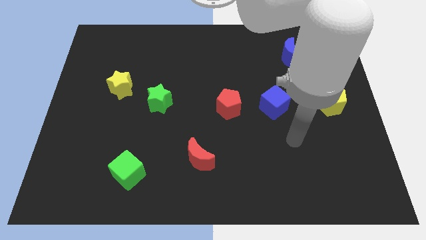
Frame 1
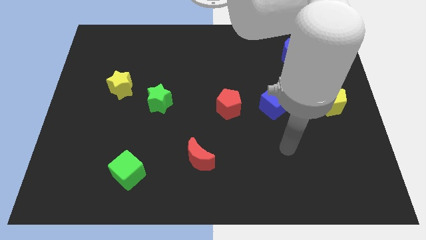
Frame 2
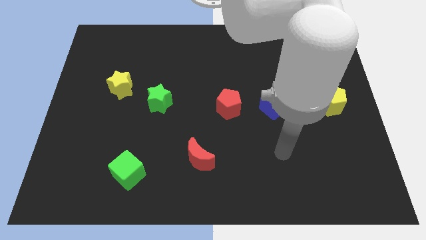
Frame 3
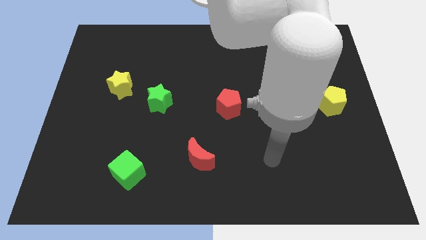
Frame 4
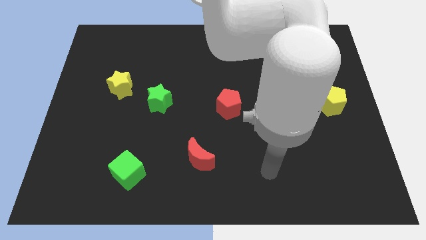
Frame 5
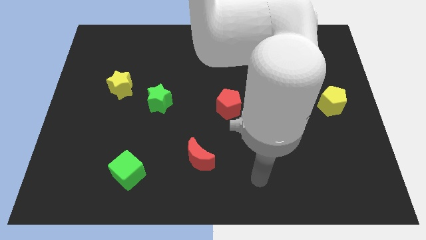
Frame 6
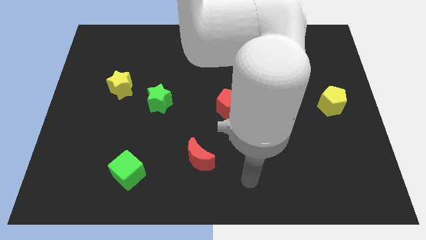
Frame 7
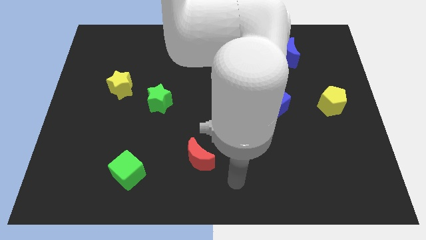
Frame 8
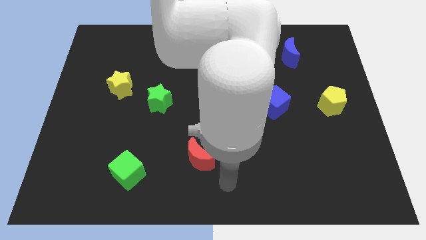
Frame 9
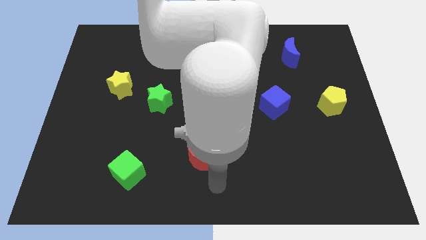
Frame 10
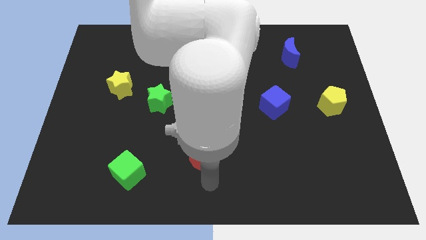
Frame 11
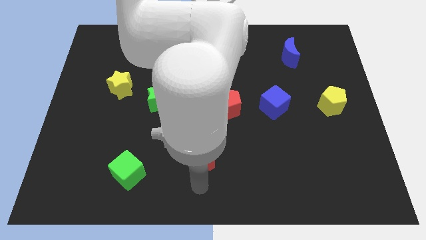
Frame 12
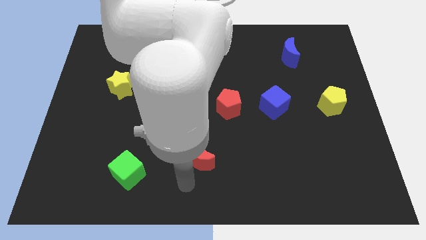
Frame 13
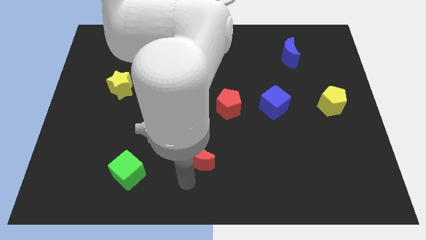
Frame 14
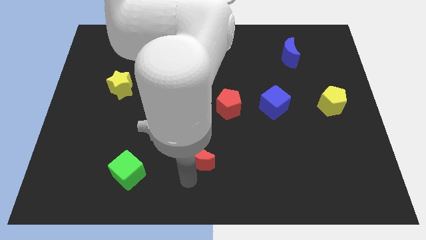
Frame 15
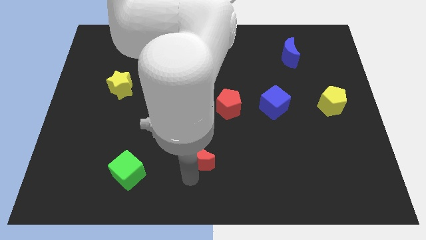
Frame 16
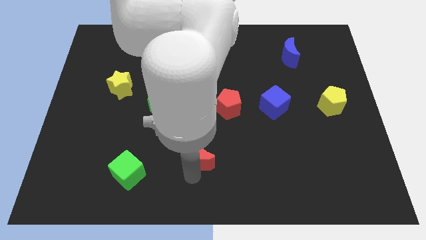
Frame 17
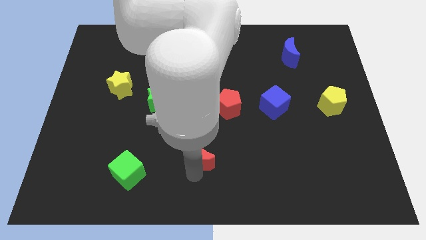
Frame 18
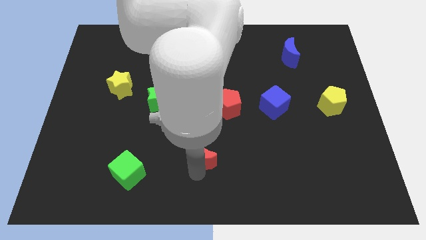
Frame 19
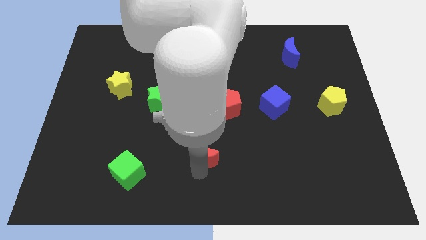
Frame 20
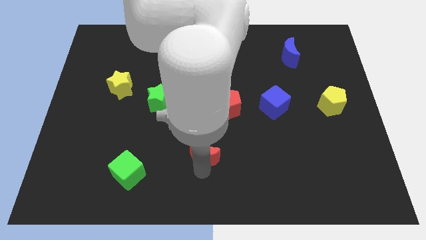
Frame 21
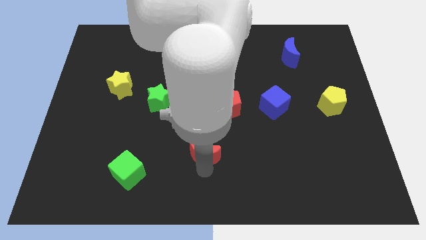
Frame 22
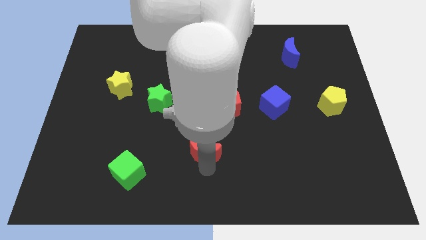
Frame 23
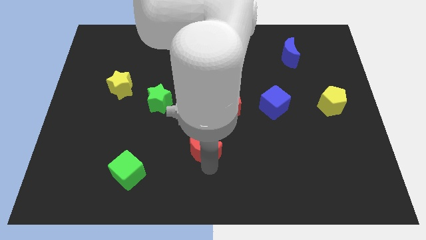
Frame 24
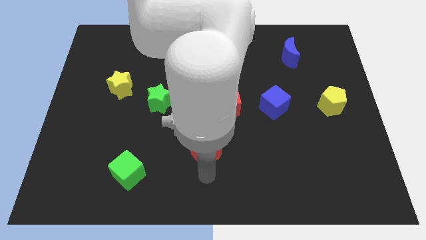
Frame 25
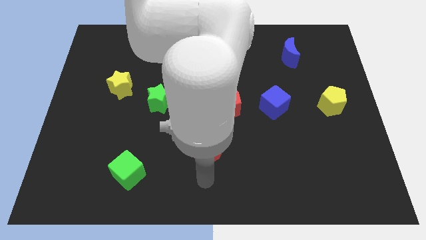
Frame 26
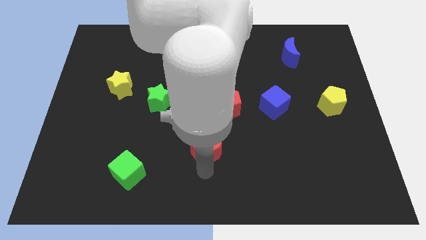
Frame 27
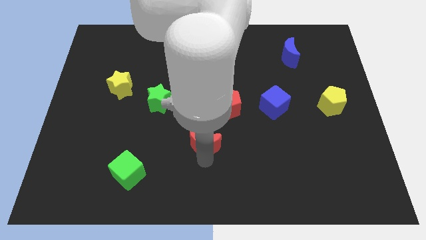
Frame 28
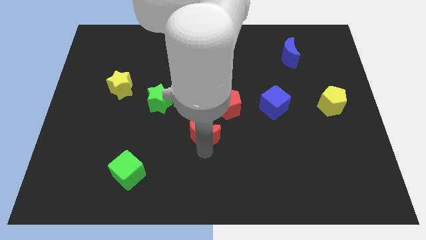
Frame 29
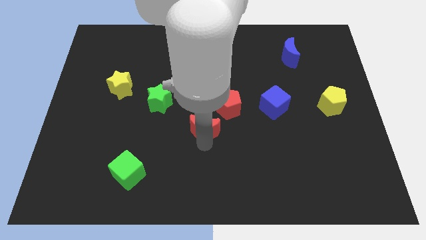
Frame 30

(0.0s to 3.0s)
move the red moon upwards somewhat

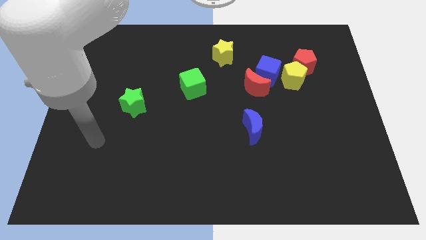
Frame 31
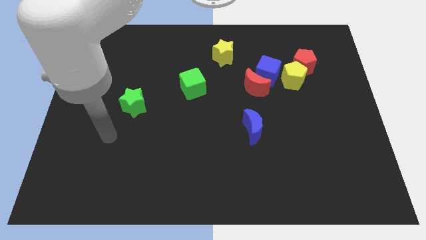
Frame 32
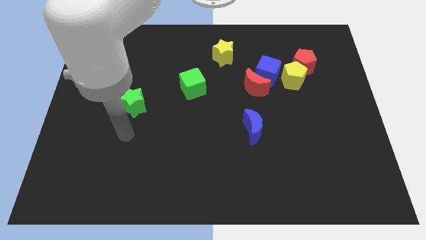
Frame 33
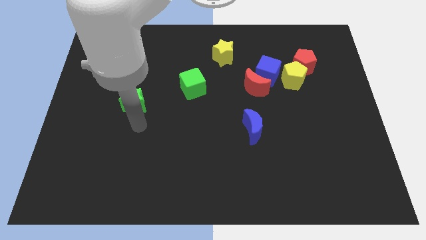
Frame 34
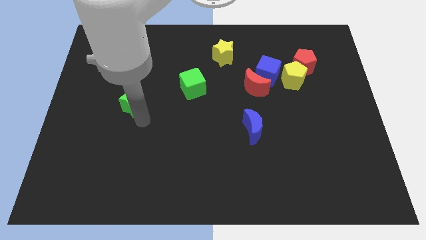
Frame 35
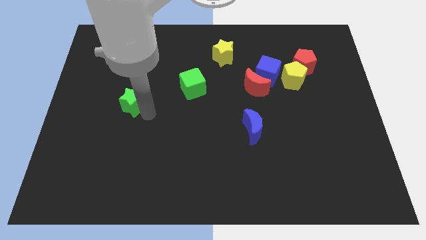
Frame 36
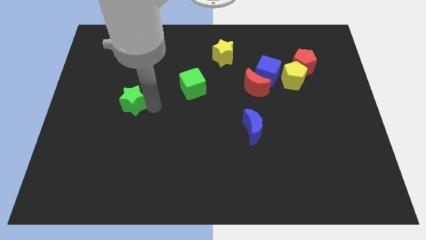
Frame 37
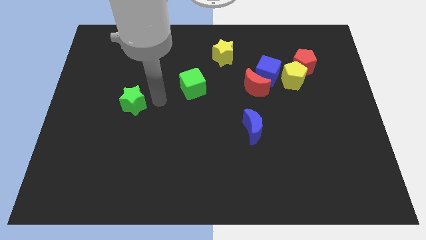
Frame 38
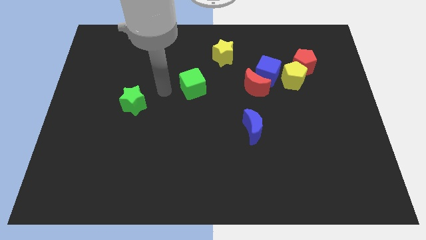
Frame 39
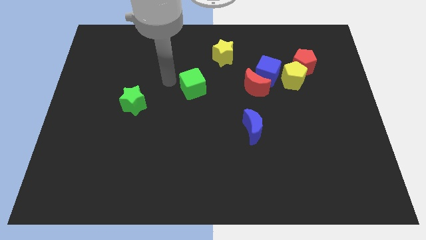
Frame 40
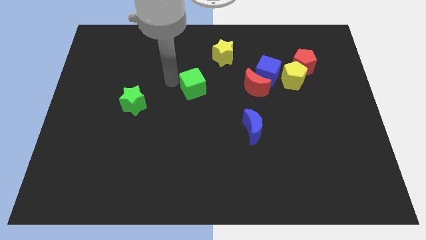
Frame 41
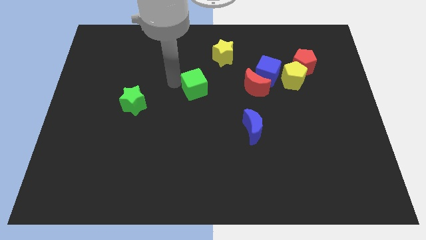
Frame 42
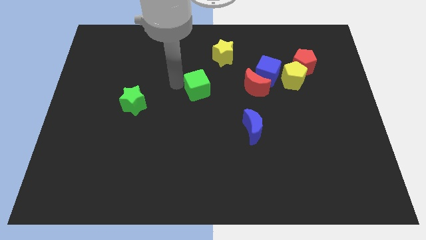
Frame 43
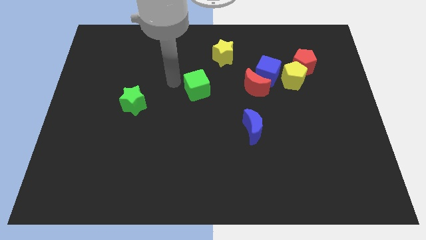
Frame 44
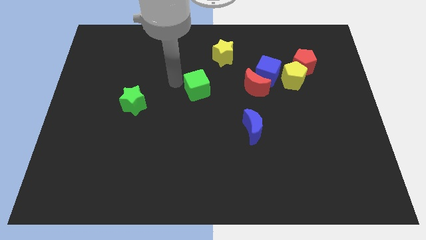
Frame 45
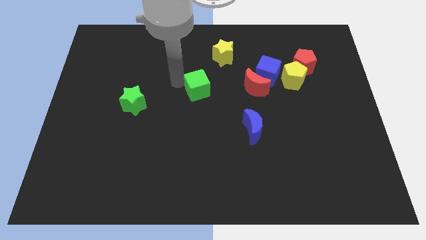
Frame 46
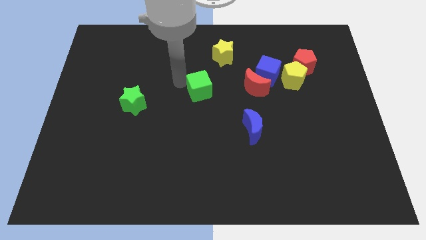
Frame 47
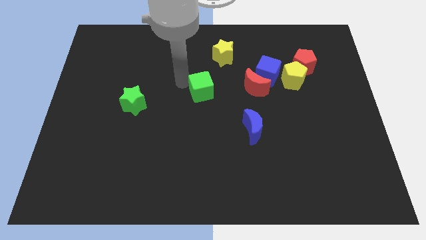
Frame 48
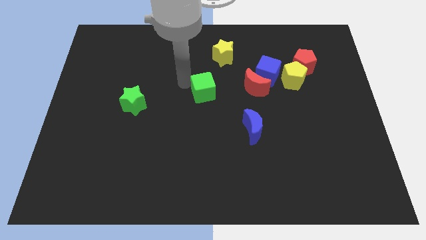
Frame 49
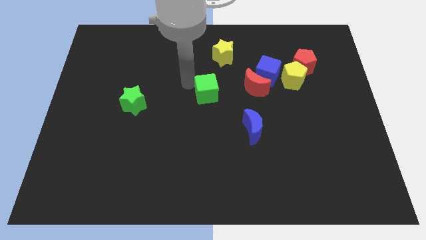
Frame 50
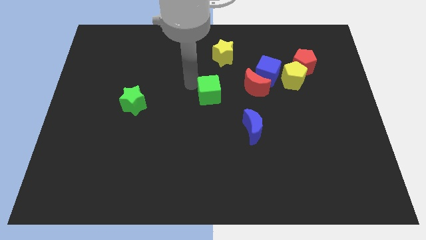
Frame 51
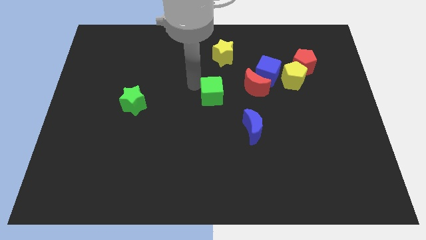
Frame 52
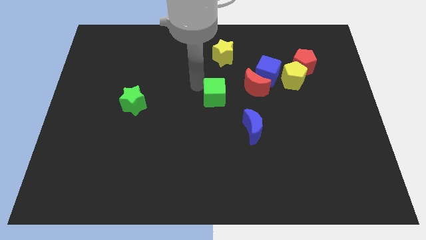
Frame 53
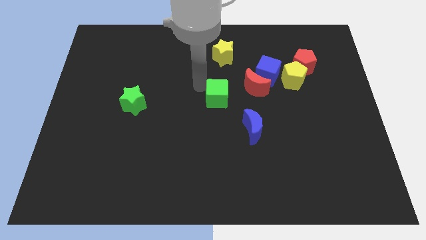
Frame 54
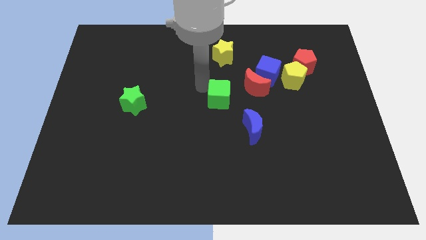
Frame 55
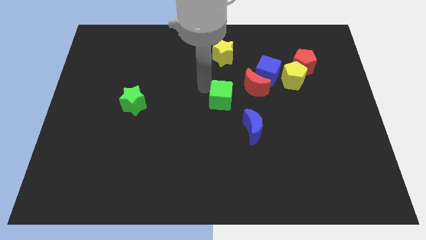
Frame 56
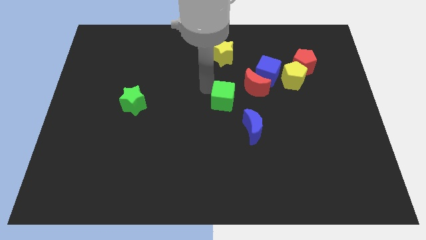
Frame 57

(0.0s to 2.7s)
slide the green cube right a bit

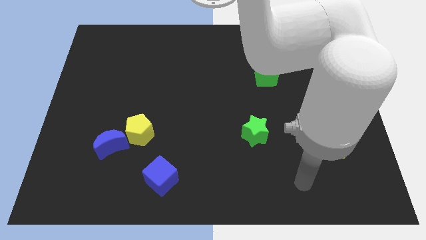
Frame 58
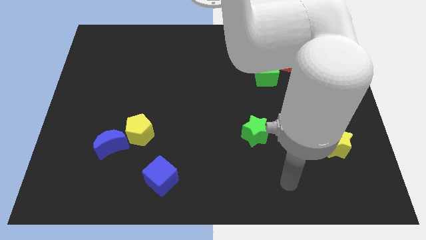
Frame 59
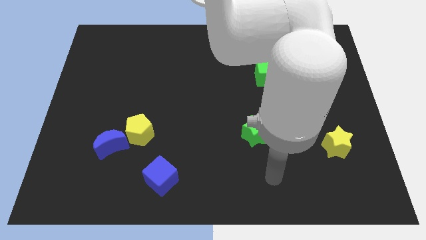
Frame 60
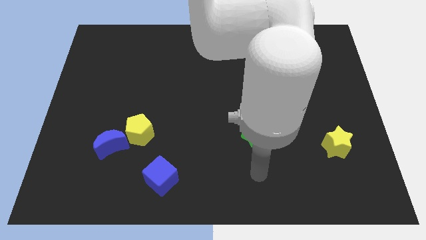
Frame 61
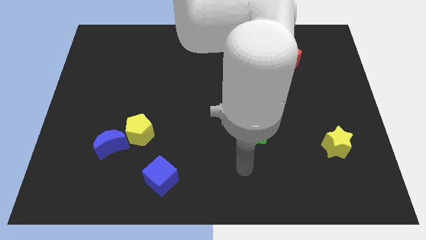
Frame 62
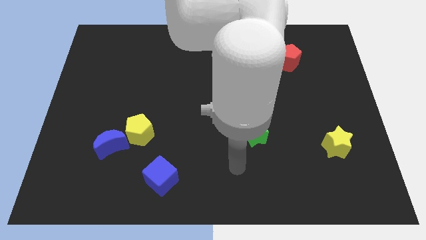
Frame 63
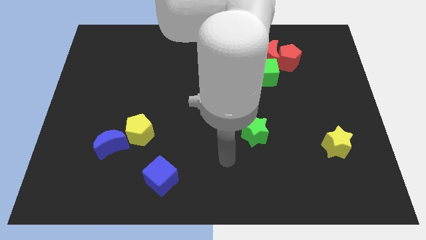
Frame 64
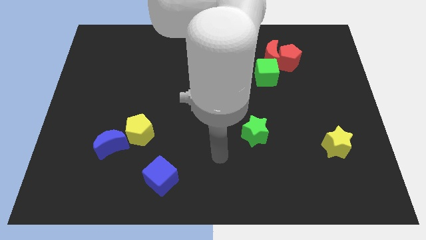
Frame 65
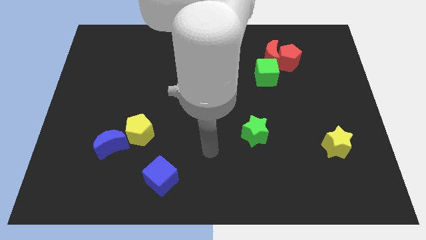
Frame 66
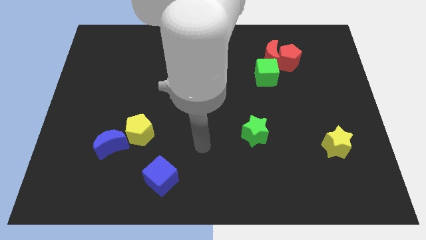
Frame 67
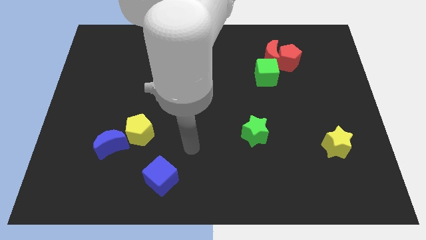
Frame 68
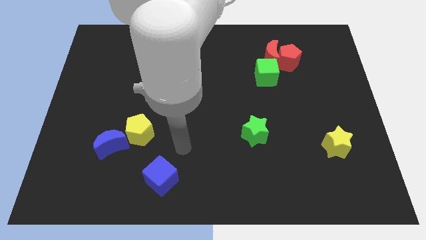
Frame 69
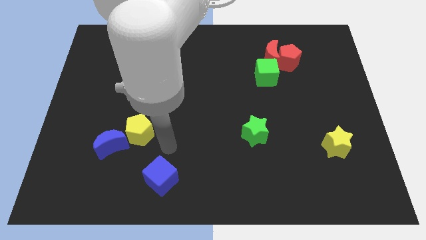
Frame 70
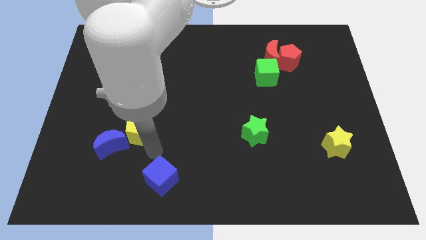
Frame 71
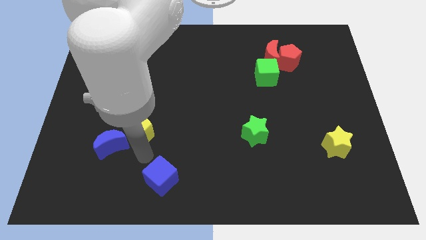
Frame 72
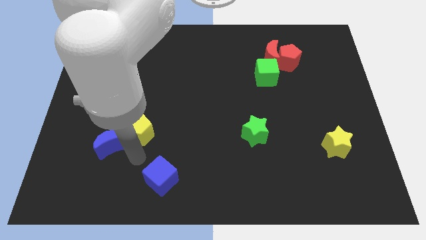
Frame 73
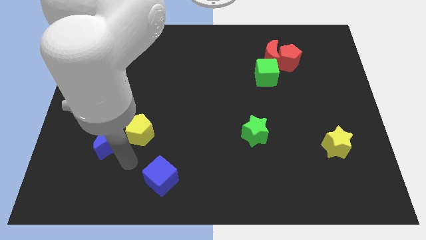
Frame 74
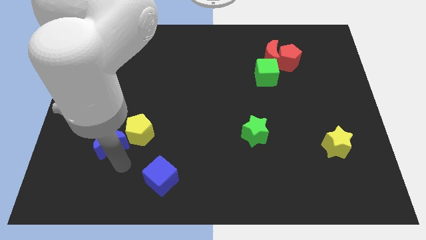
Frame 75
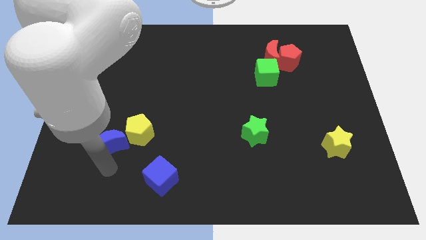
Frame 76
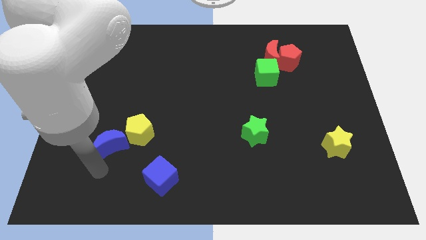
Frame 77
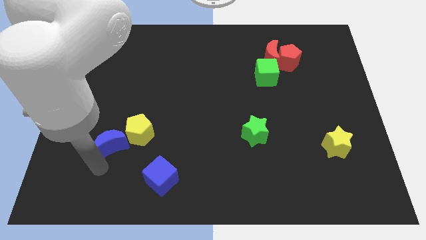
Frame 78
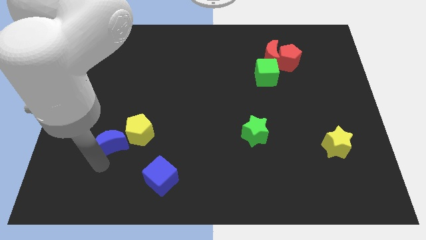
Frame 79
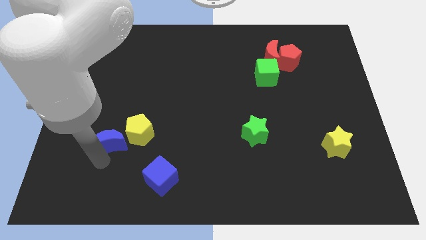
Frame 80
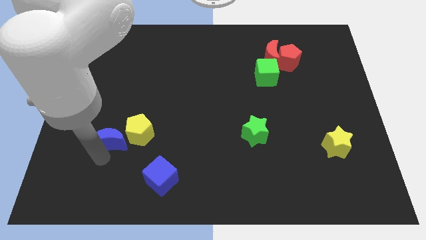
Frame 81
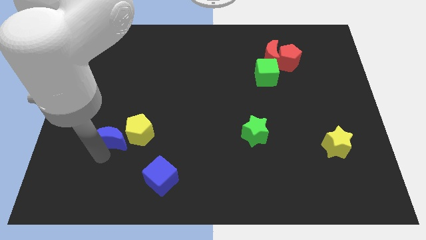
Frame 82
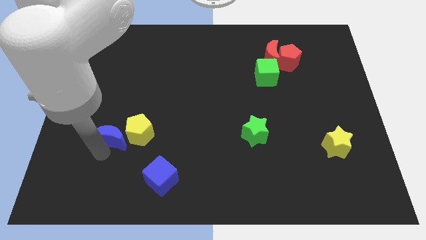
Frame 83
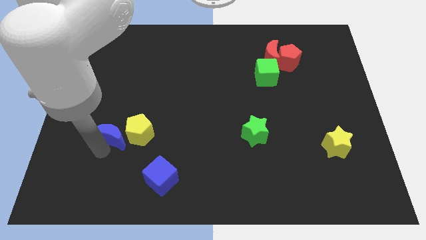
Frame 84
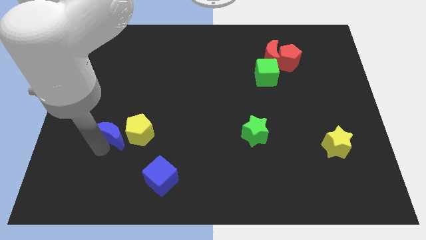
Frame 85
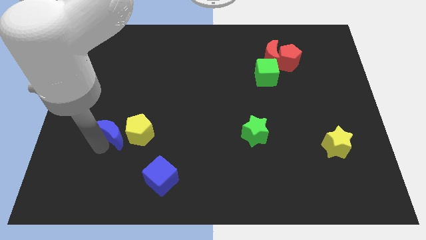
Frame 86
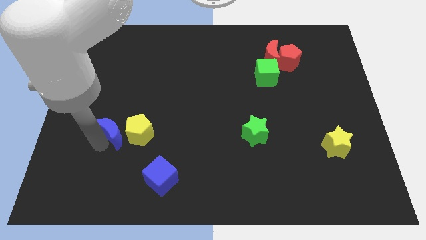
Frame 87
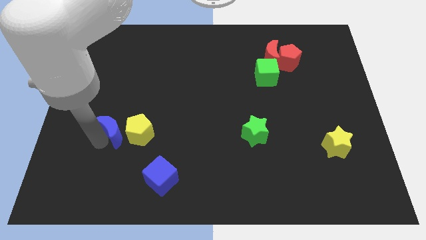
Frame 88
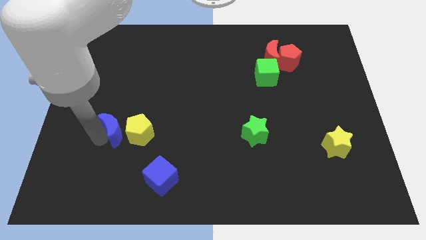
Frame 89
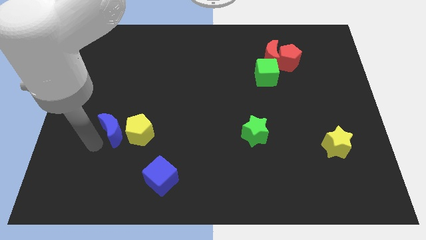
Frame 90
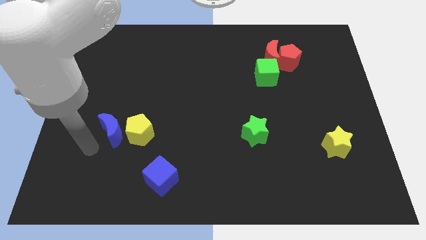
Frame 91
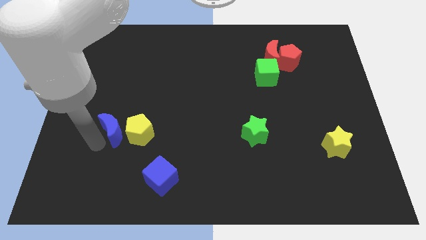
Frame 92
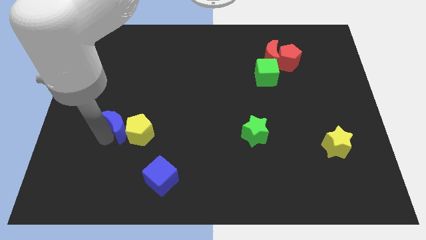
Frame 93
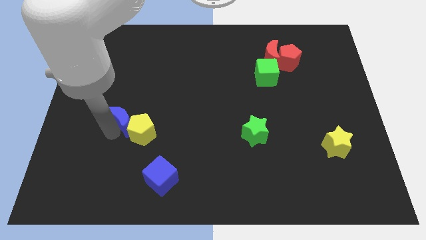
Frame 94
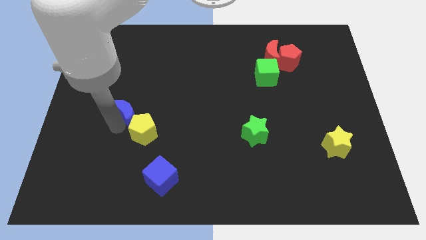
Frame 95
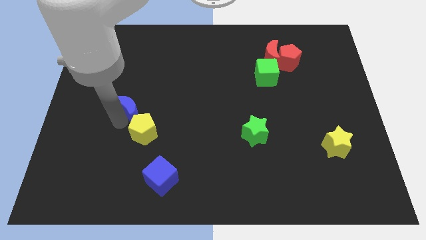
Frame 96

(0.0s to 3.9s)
slightly move the blue moon diagonally upwards and to the right
